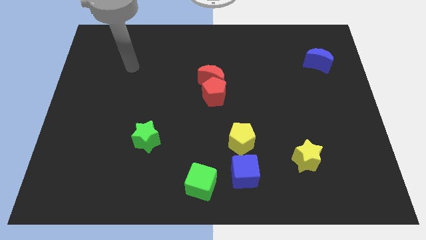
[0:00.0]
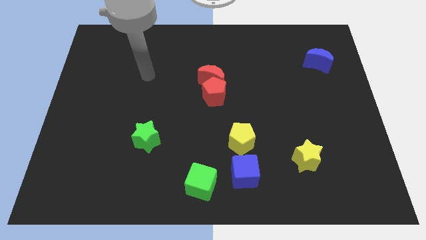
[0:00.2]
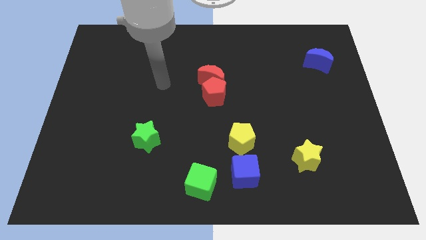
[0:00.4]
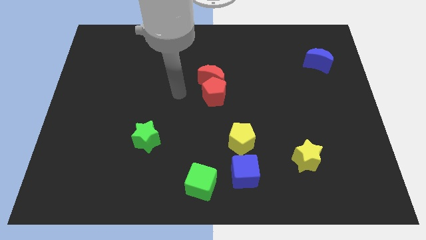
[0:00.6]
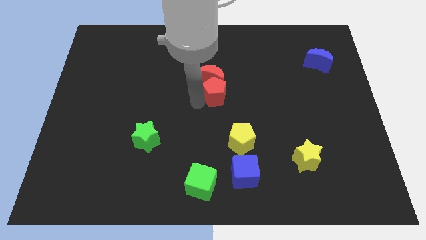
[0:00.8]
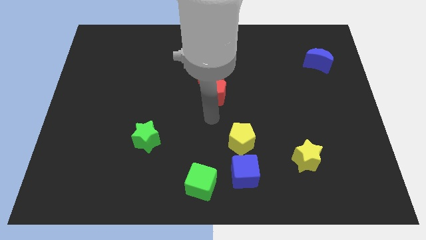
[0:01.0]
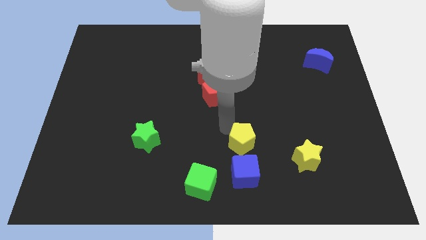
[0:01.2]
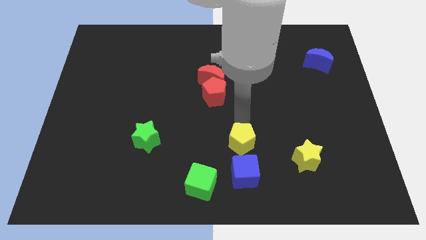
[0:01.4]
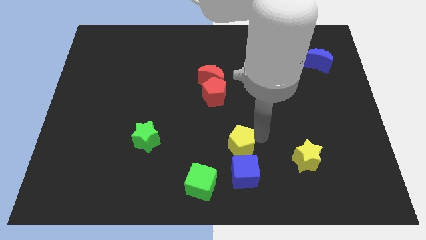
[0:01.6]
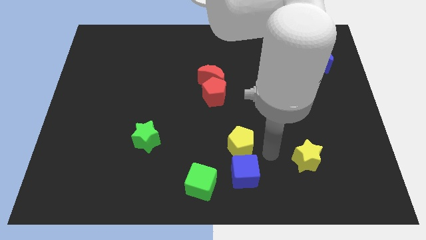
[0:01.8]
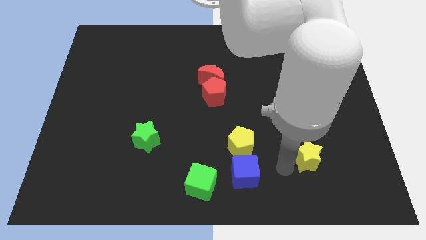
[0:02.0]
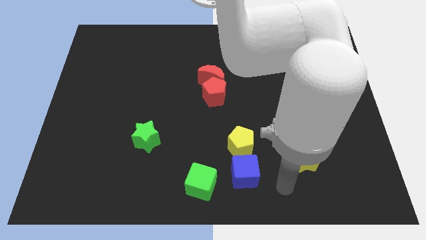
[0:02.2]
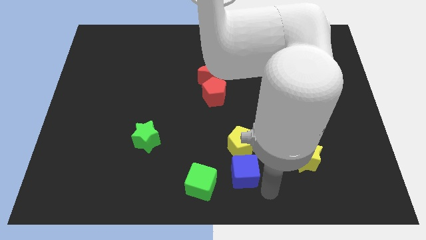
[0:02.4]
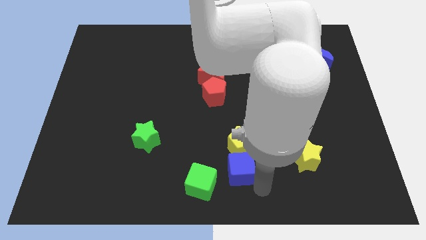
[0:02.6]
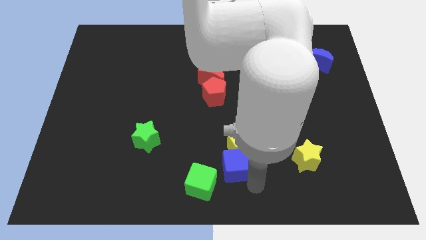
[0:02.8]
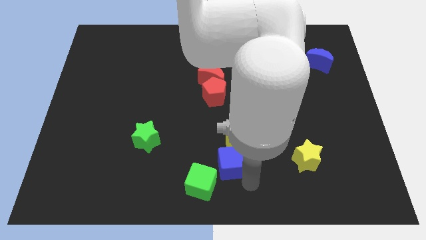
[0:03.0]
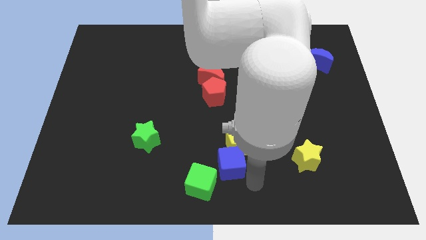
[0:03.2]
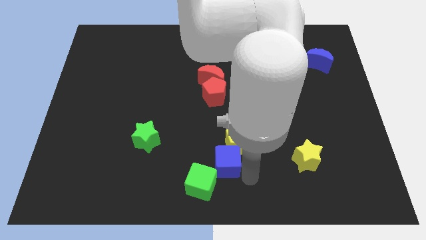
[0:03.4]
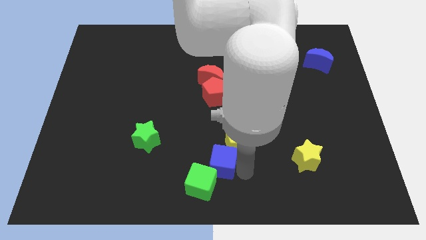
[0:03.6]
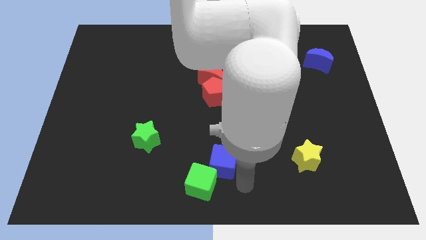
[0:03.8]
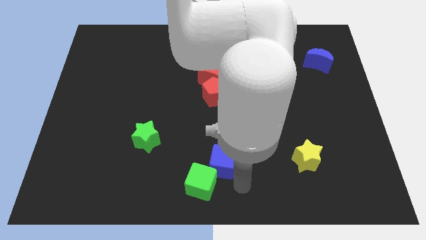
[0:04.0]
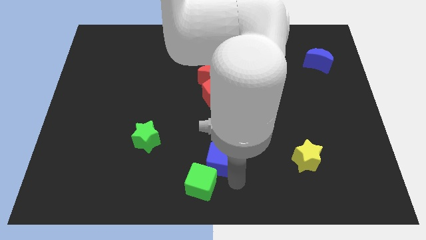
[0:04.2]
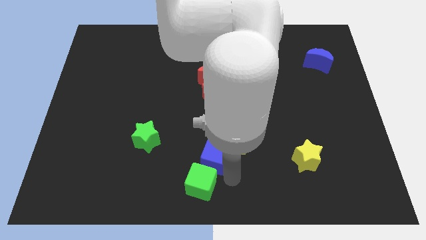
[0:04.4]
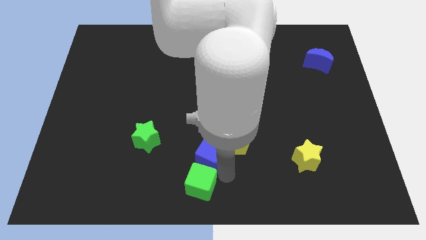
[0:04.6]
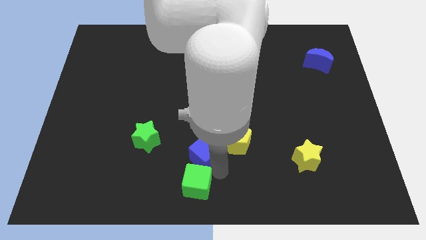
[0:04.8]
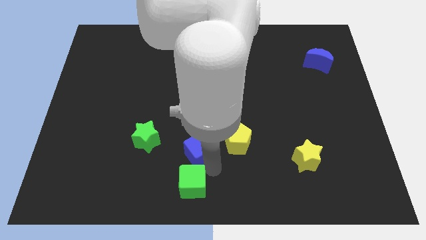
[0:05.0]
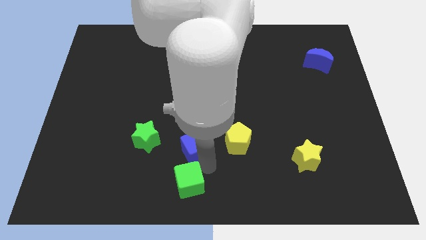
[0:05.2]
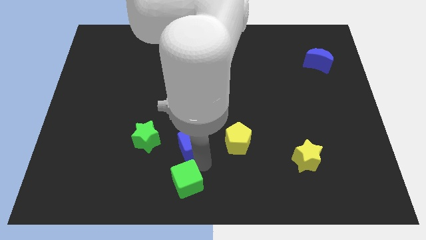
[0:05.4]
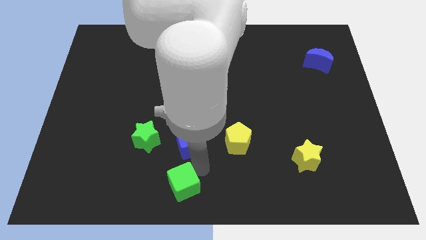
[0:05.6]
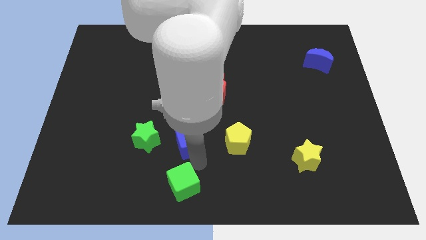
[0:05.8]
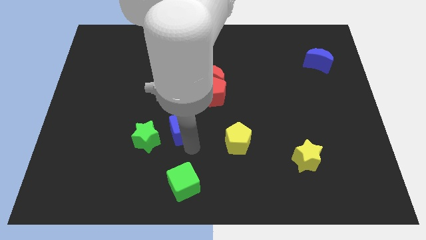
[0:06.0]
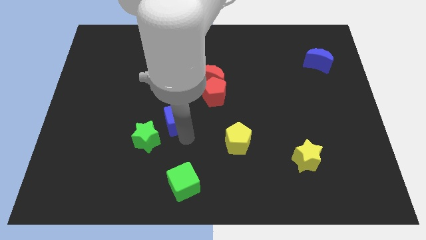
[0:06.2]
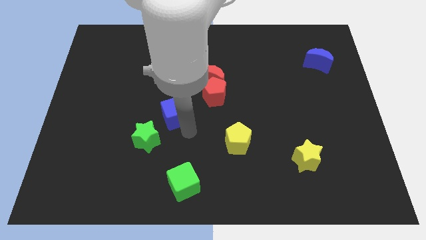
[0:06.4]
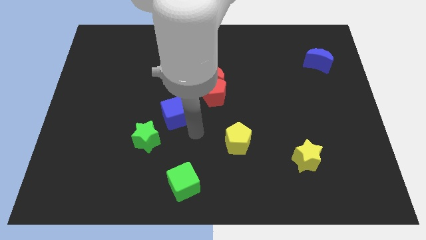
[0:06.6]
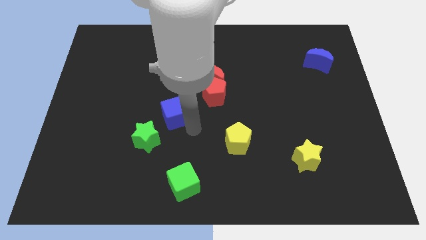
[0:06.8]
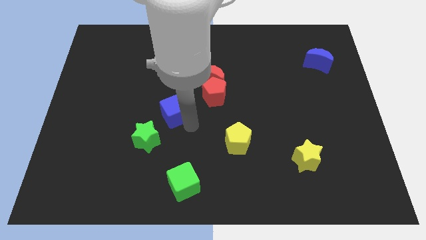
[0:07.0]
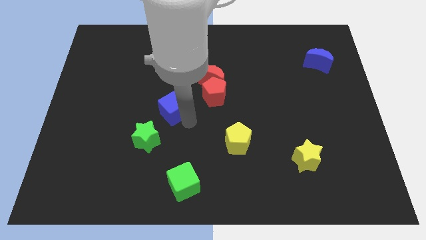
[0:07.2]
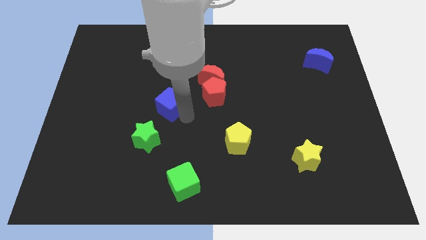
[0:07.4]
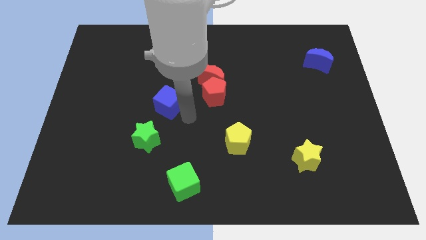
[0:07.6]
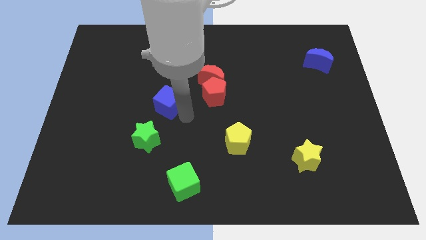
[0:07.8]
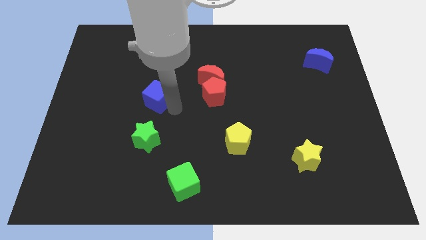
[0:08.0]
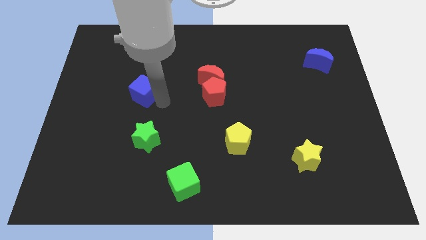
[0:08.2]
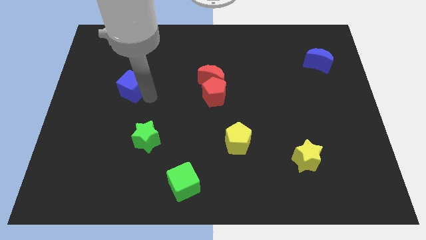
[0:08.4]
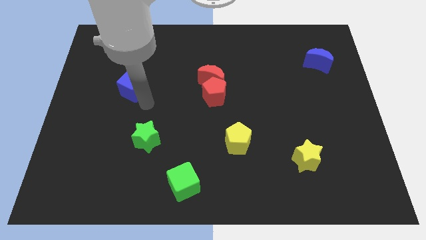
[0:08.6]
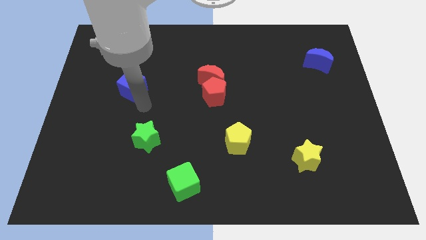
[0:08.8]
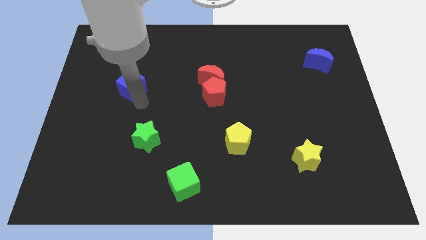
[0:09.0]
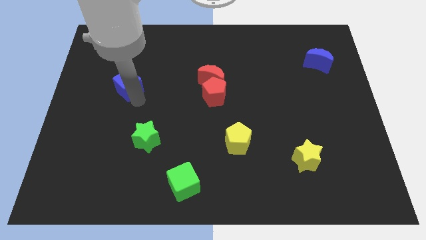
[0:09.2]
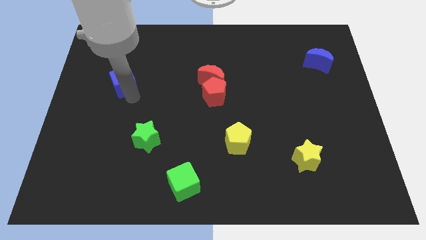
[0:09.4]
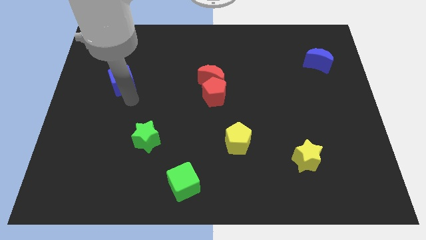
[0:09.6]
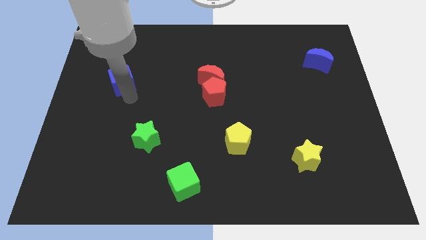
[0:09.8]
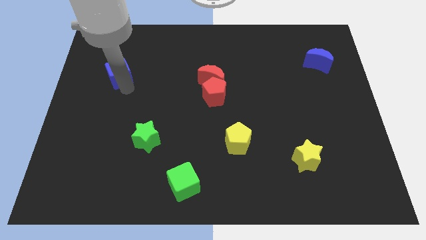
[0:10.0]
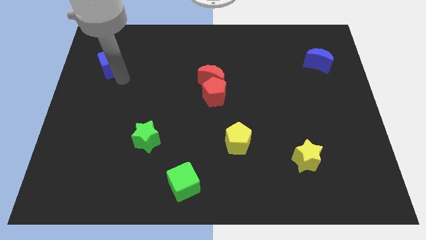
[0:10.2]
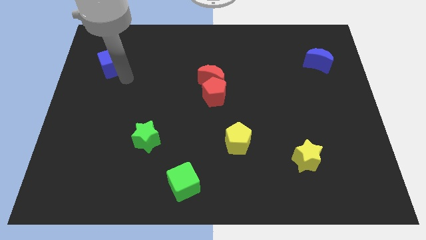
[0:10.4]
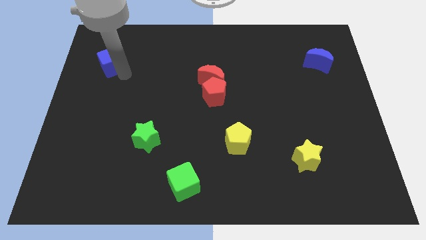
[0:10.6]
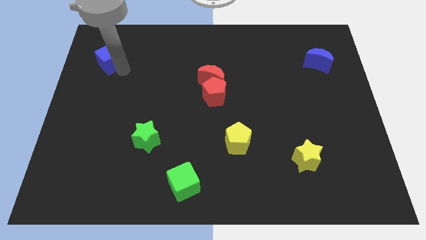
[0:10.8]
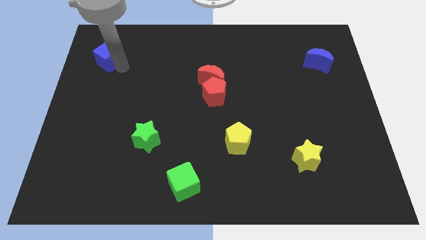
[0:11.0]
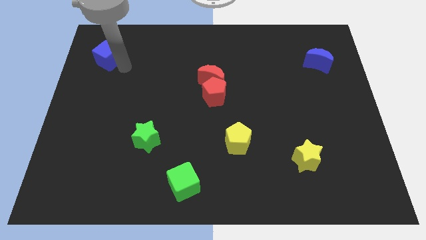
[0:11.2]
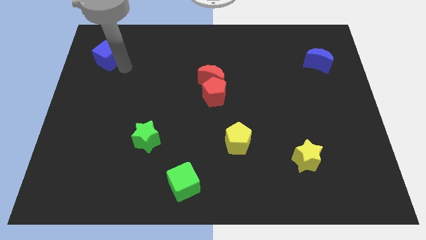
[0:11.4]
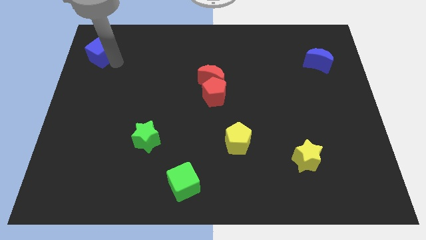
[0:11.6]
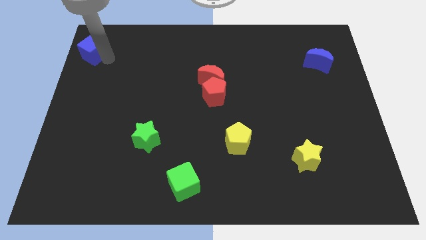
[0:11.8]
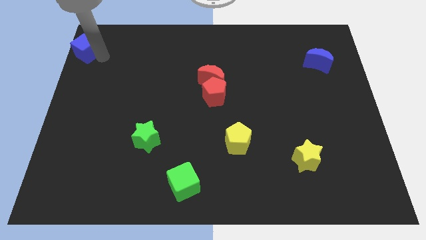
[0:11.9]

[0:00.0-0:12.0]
push the blue cube to the top left corner

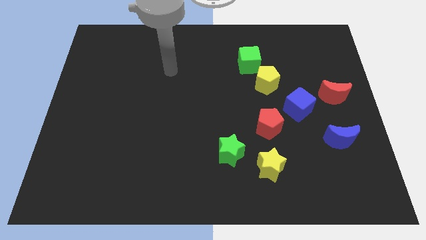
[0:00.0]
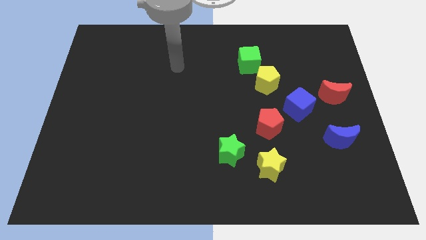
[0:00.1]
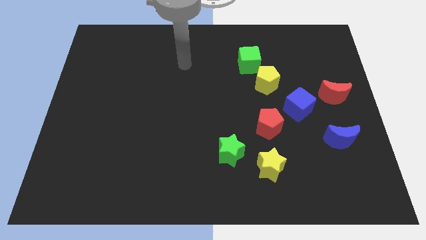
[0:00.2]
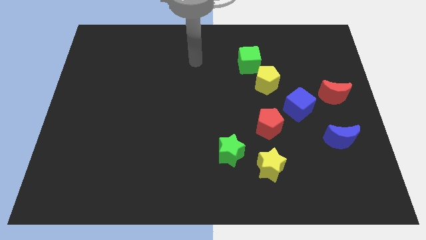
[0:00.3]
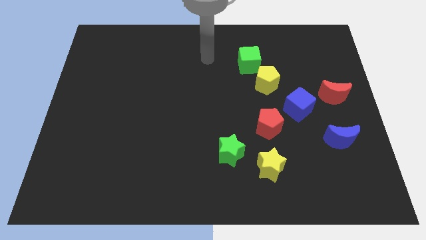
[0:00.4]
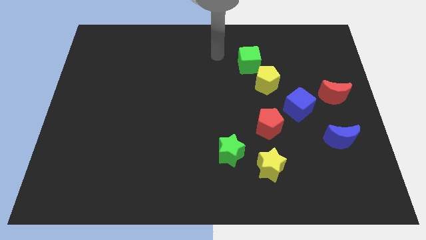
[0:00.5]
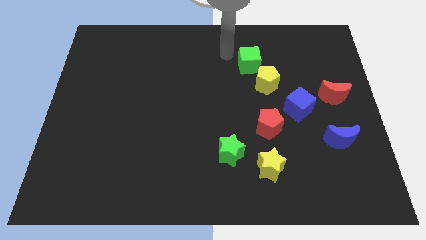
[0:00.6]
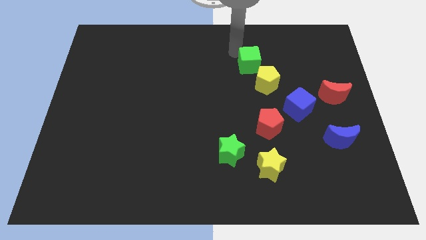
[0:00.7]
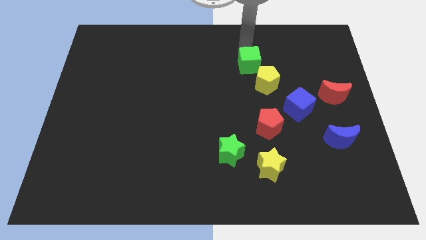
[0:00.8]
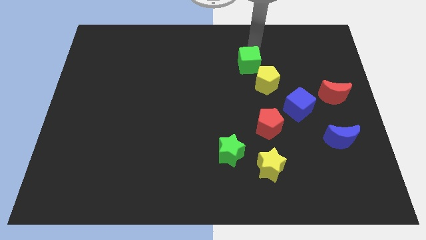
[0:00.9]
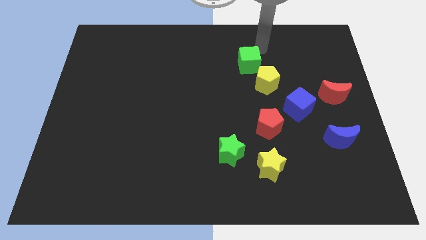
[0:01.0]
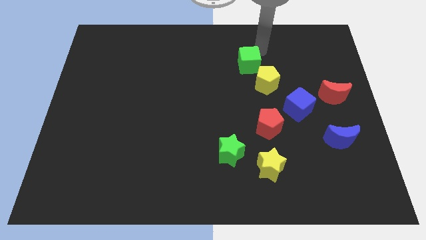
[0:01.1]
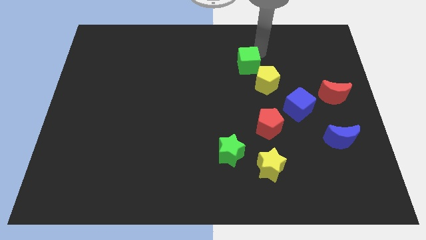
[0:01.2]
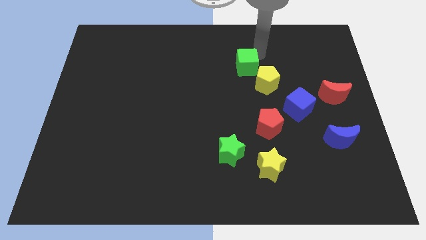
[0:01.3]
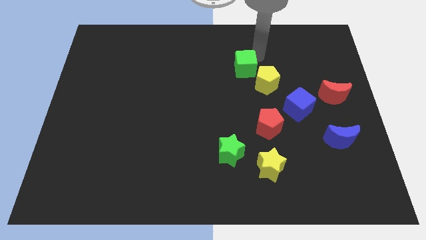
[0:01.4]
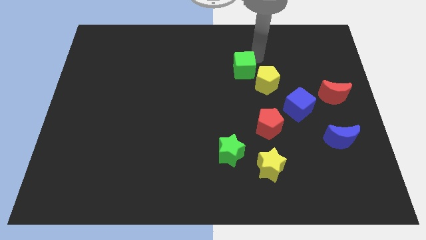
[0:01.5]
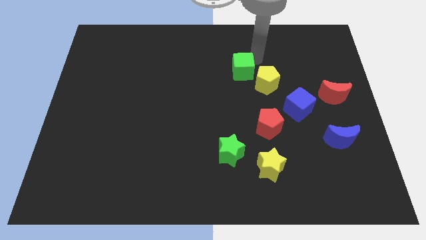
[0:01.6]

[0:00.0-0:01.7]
slide the green cube to the middle of the board
